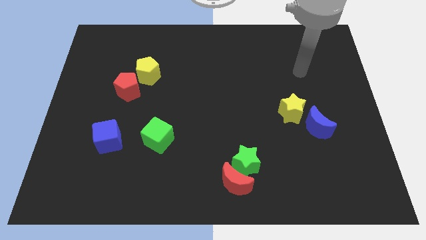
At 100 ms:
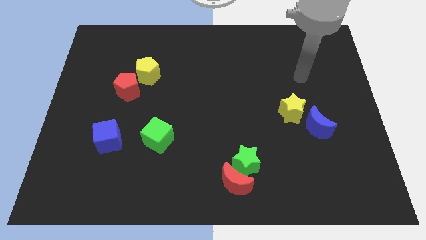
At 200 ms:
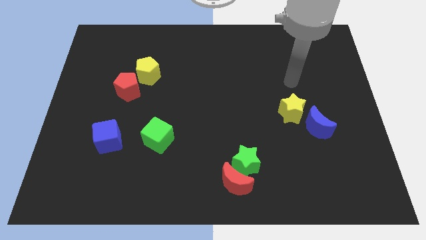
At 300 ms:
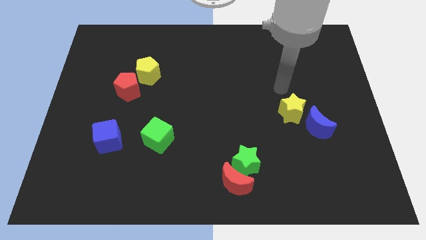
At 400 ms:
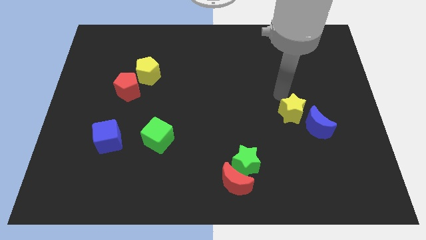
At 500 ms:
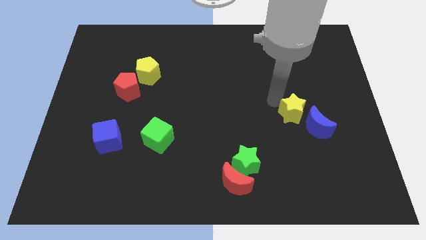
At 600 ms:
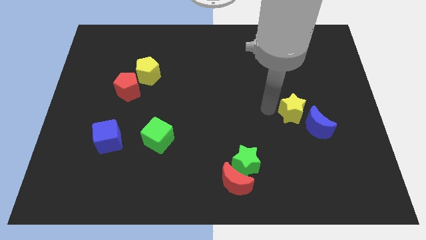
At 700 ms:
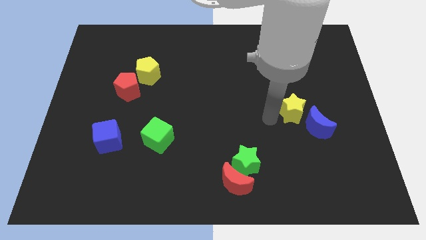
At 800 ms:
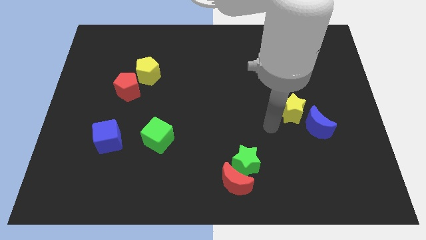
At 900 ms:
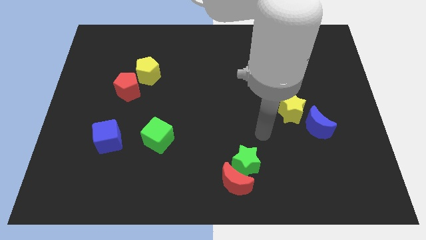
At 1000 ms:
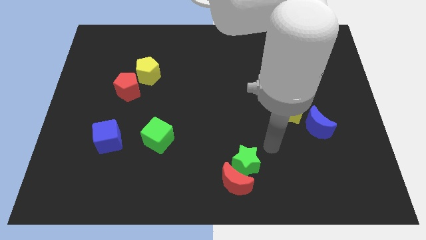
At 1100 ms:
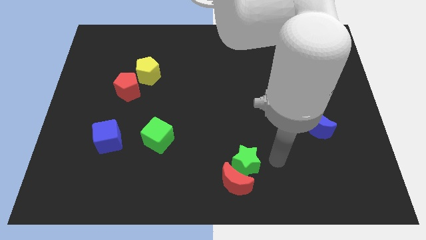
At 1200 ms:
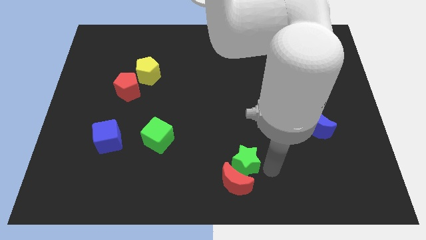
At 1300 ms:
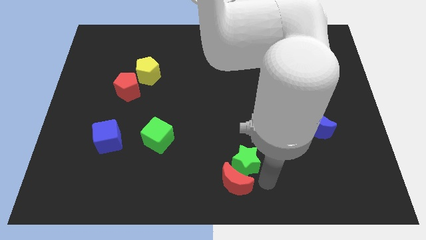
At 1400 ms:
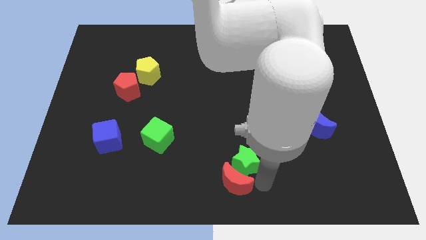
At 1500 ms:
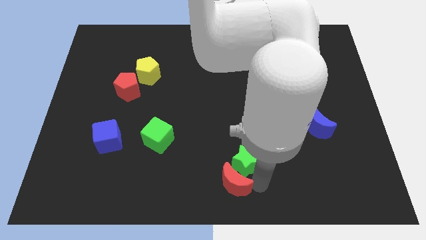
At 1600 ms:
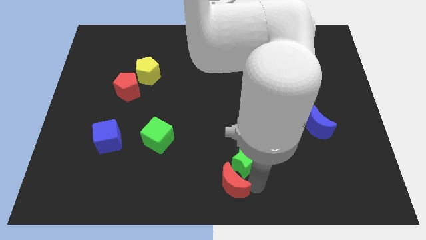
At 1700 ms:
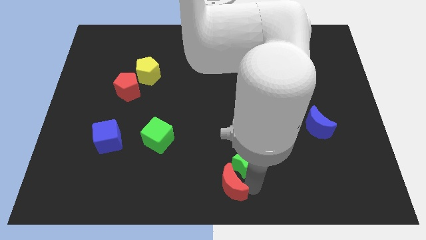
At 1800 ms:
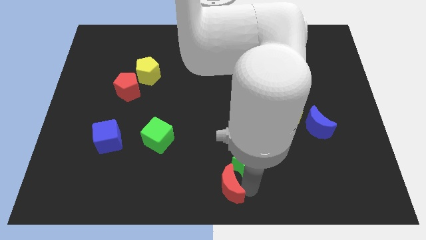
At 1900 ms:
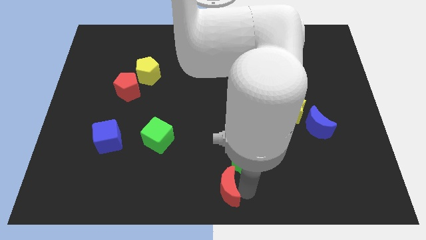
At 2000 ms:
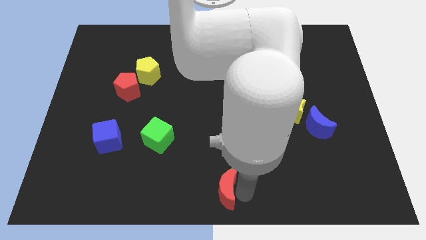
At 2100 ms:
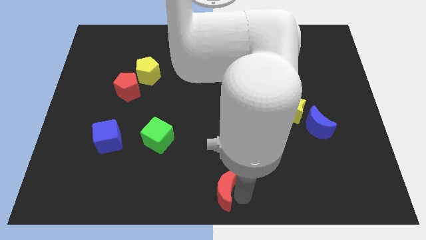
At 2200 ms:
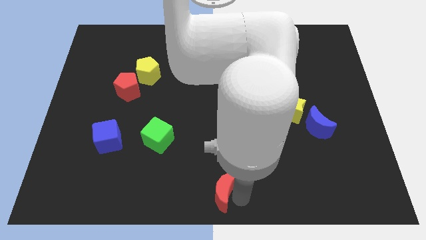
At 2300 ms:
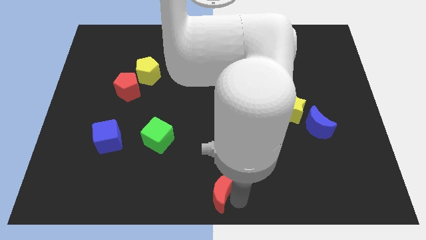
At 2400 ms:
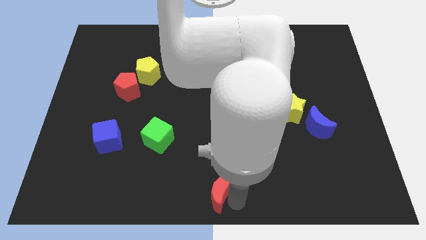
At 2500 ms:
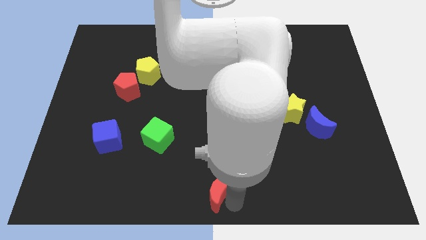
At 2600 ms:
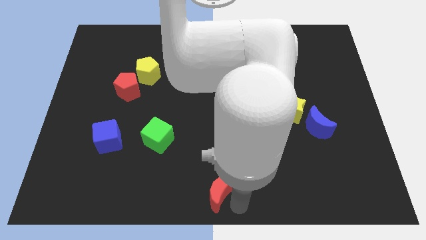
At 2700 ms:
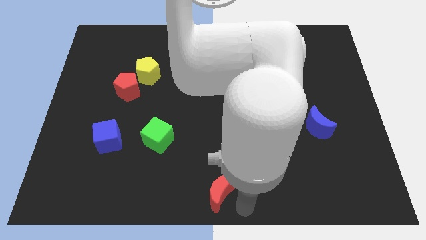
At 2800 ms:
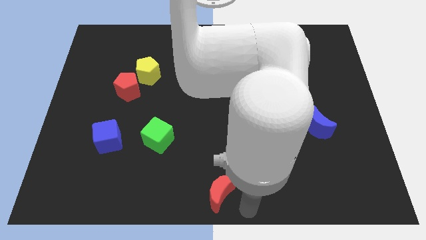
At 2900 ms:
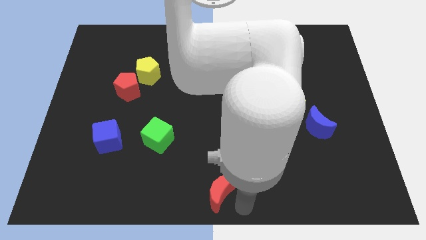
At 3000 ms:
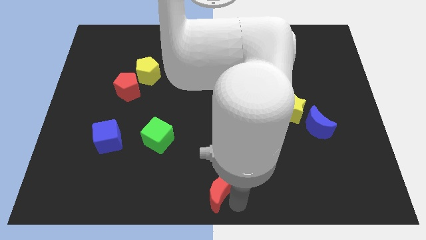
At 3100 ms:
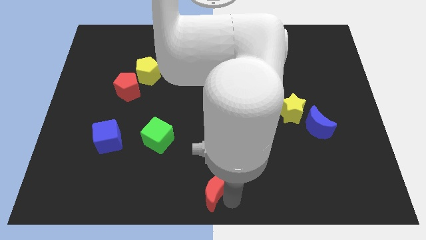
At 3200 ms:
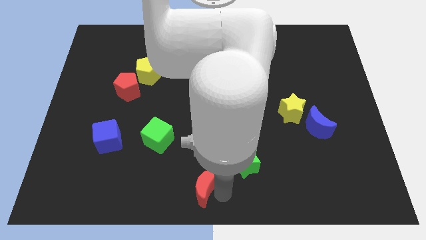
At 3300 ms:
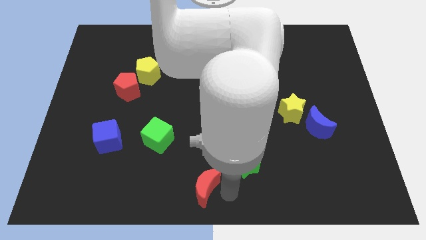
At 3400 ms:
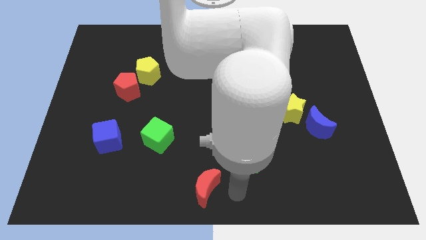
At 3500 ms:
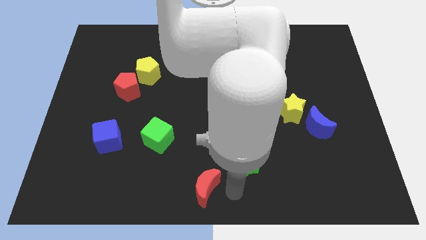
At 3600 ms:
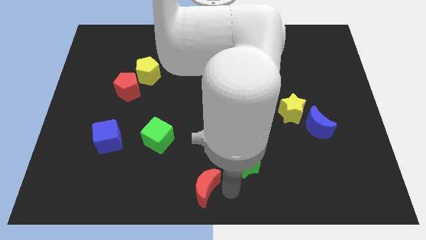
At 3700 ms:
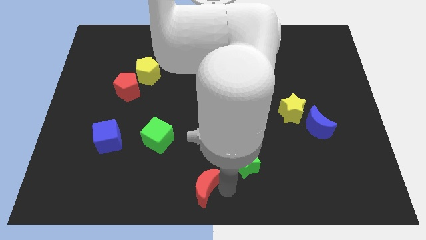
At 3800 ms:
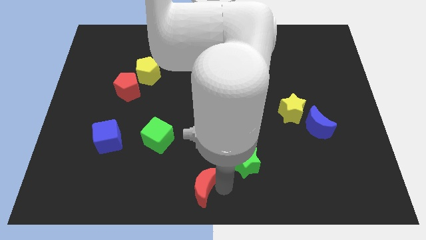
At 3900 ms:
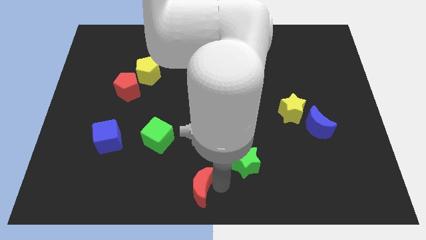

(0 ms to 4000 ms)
slightly move the red moon left

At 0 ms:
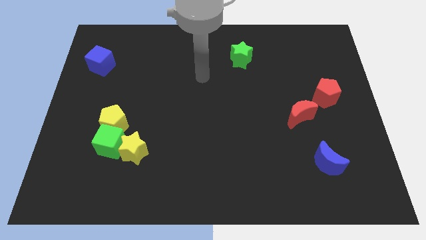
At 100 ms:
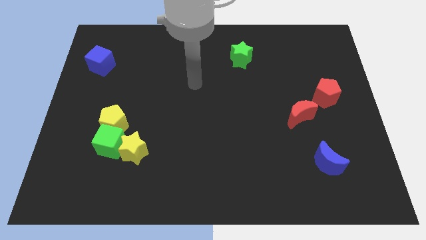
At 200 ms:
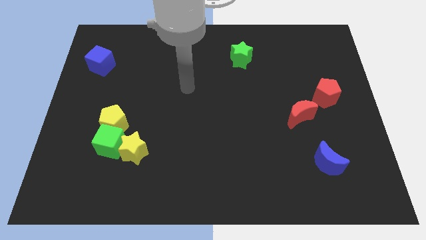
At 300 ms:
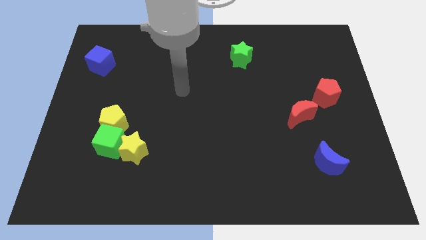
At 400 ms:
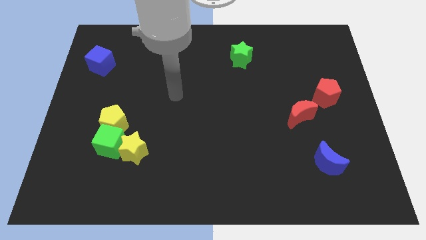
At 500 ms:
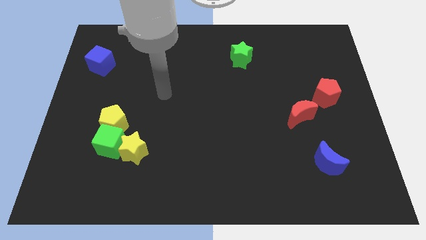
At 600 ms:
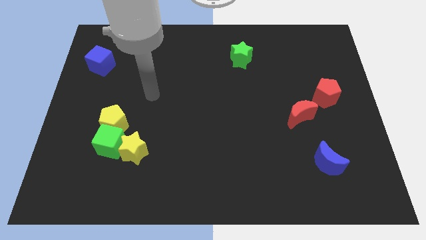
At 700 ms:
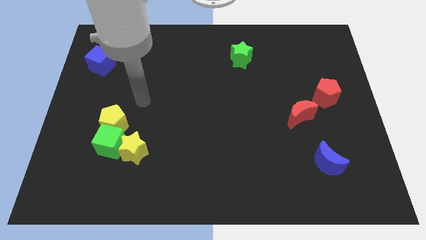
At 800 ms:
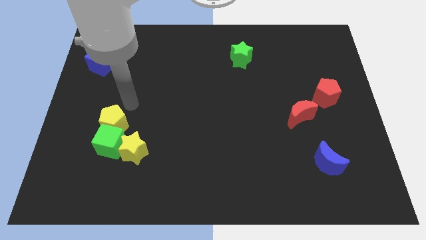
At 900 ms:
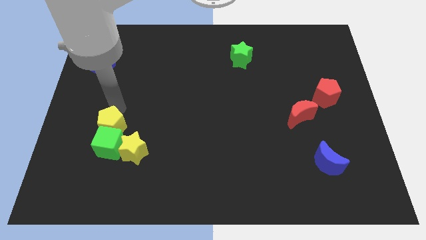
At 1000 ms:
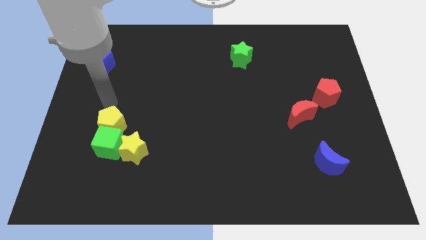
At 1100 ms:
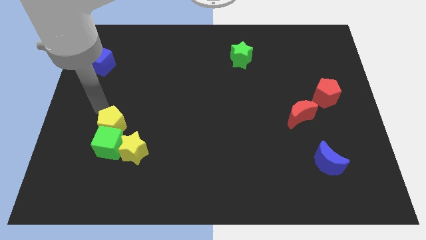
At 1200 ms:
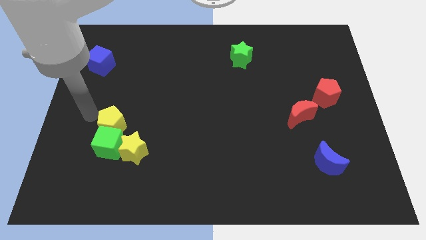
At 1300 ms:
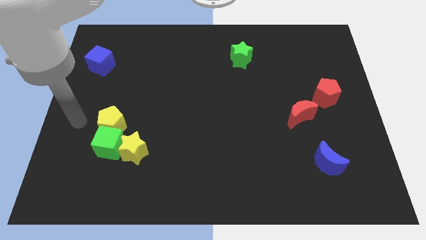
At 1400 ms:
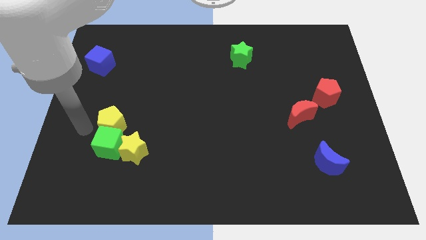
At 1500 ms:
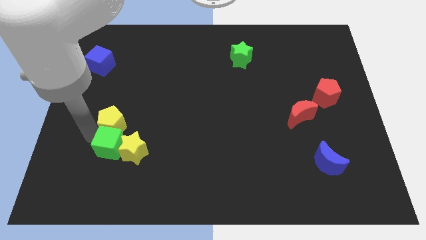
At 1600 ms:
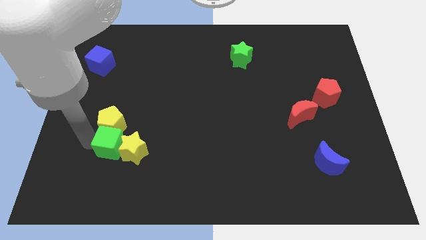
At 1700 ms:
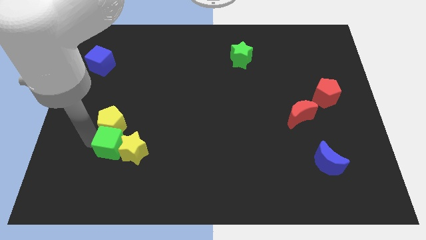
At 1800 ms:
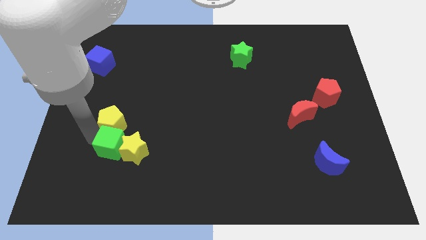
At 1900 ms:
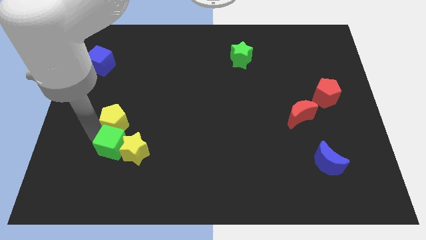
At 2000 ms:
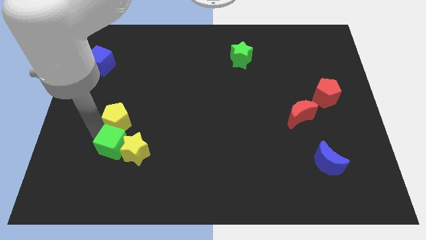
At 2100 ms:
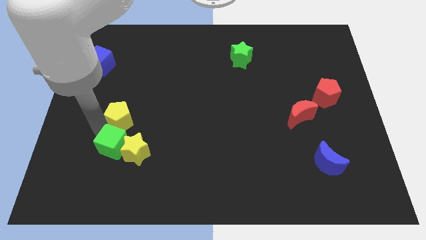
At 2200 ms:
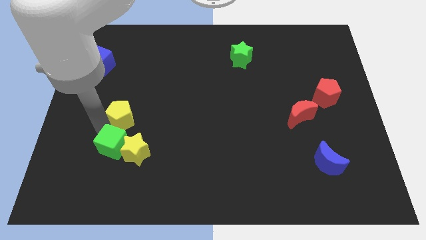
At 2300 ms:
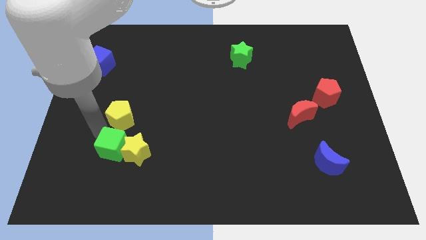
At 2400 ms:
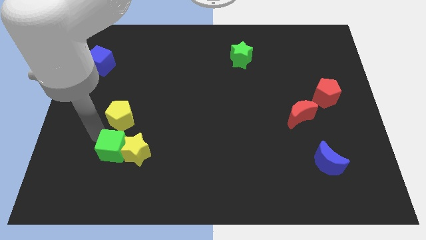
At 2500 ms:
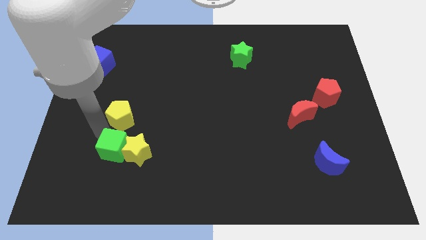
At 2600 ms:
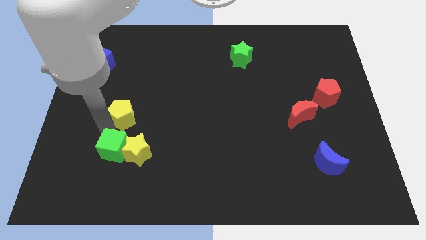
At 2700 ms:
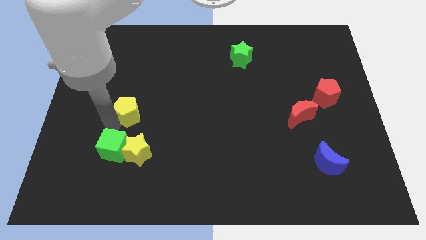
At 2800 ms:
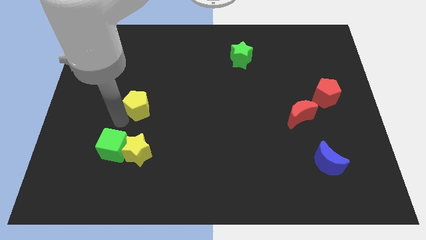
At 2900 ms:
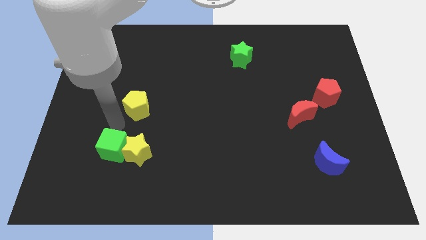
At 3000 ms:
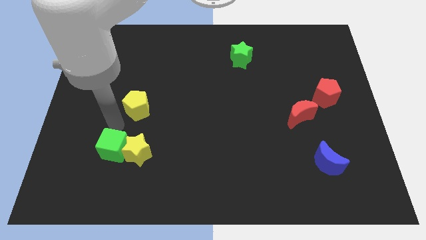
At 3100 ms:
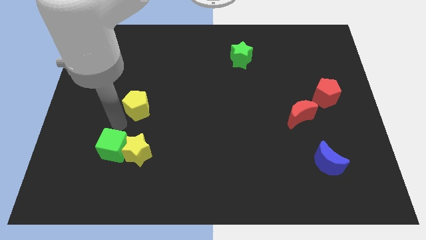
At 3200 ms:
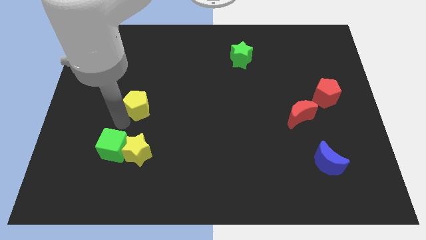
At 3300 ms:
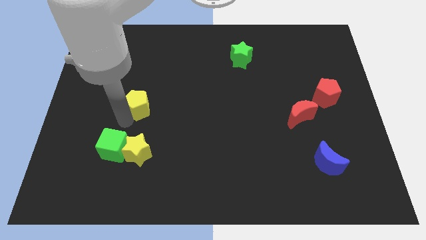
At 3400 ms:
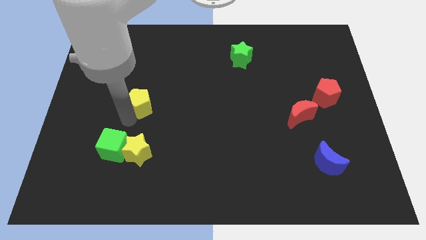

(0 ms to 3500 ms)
move the yellow pentagon diagonally up and right a little

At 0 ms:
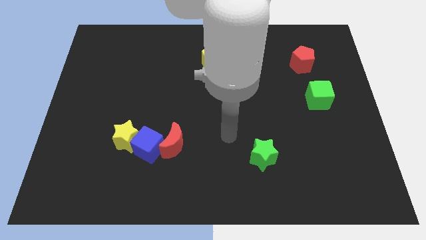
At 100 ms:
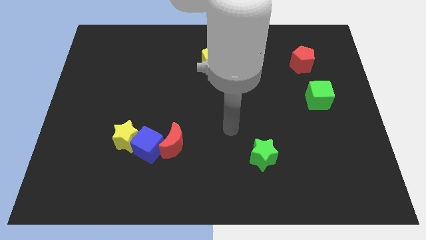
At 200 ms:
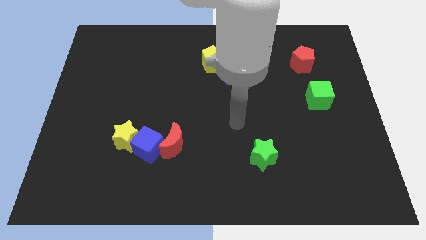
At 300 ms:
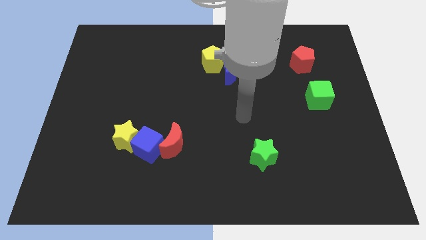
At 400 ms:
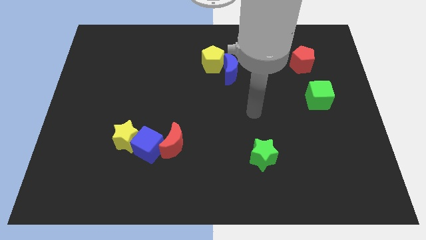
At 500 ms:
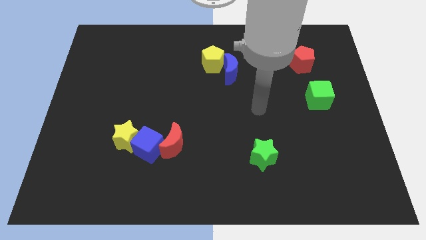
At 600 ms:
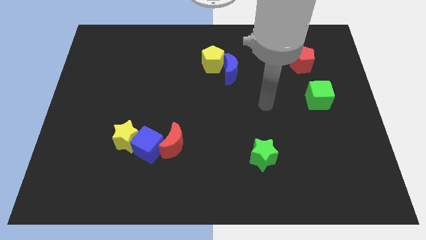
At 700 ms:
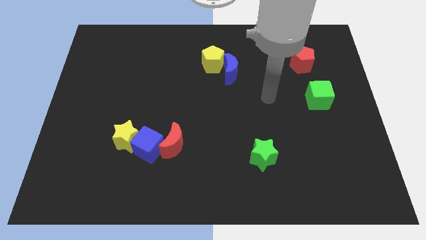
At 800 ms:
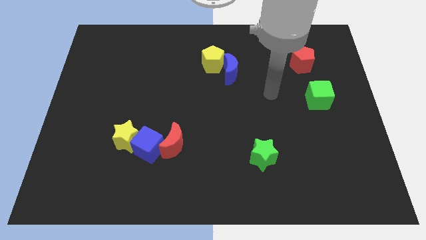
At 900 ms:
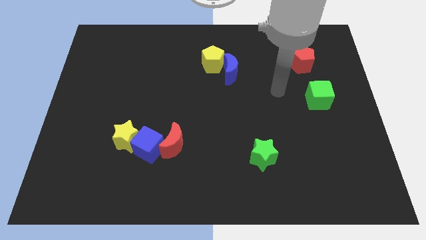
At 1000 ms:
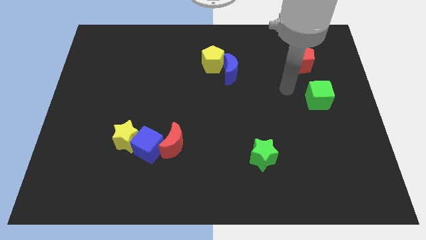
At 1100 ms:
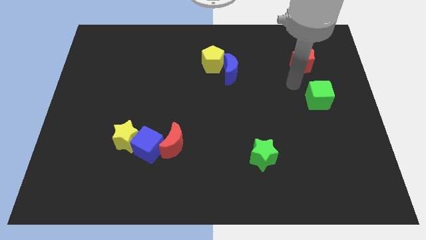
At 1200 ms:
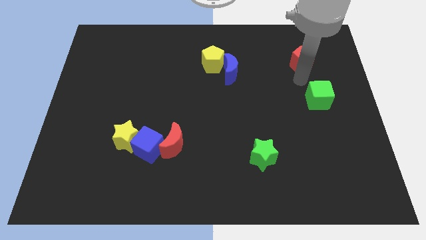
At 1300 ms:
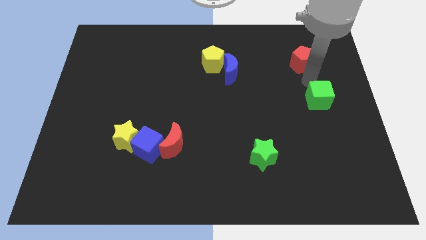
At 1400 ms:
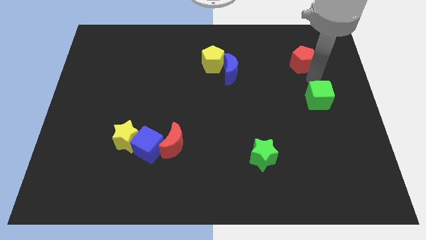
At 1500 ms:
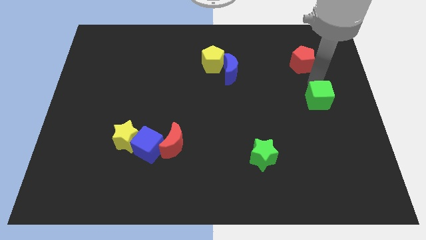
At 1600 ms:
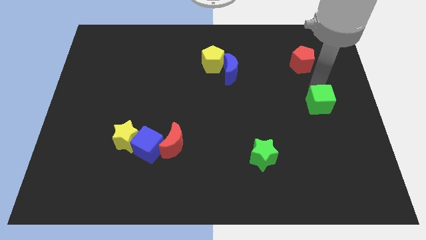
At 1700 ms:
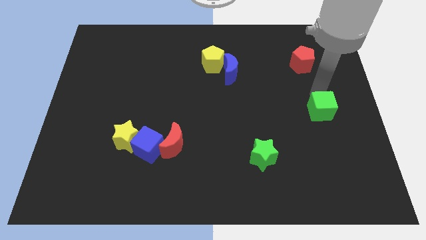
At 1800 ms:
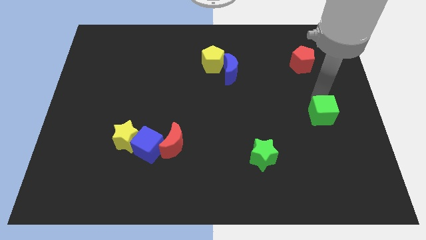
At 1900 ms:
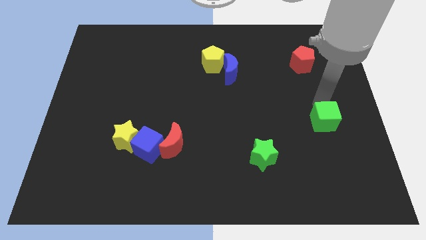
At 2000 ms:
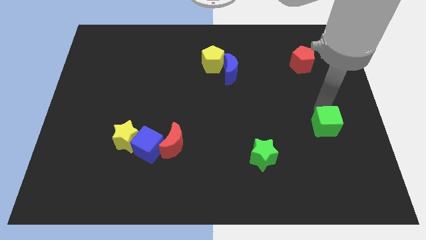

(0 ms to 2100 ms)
slide the green cube a little downwards
